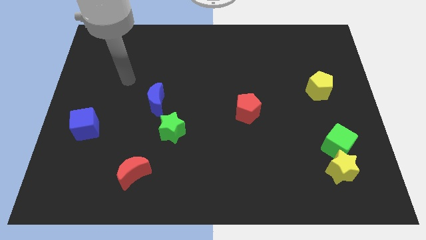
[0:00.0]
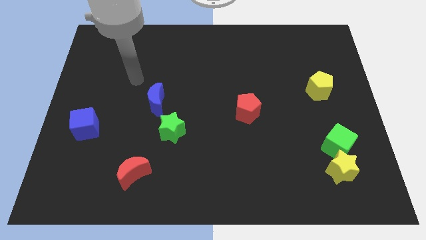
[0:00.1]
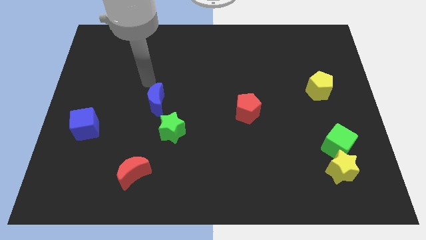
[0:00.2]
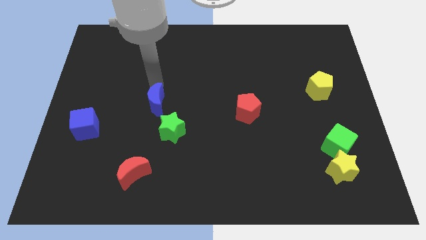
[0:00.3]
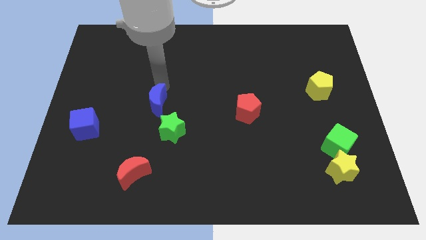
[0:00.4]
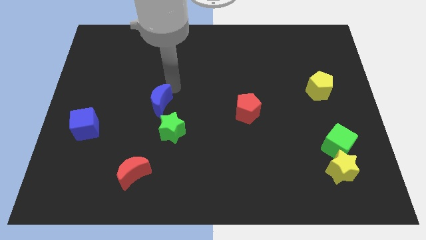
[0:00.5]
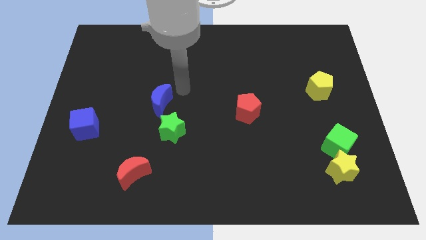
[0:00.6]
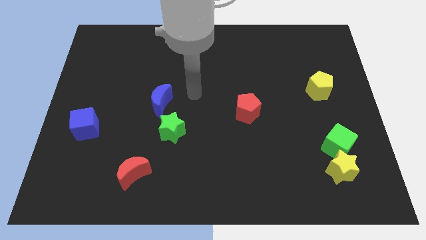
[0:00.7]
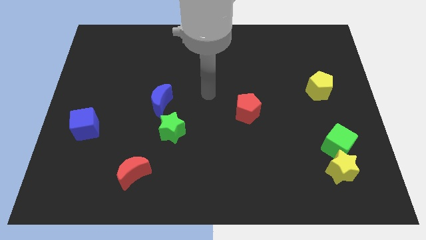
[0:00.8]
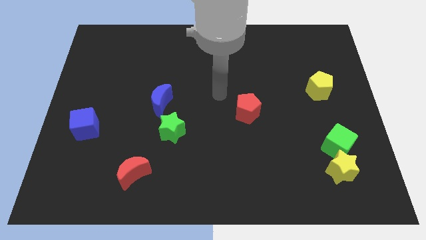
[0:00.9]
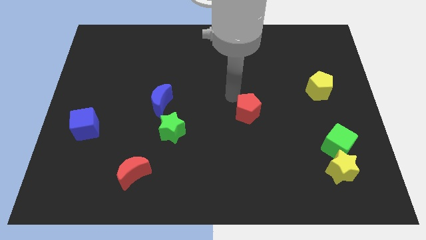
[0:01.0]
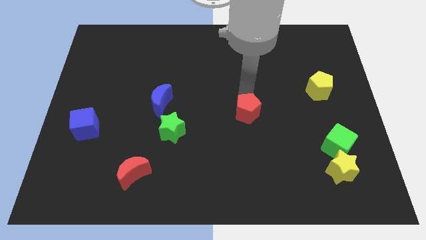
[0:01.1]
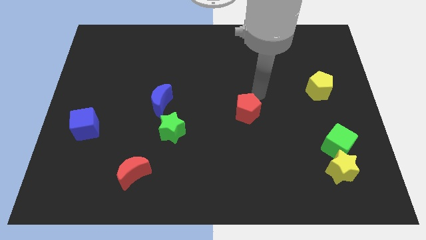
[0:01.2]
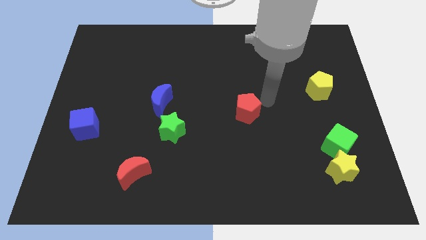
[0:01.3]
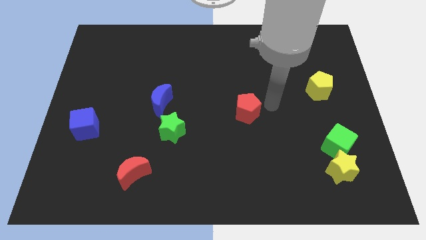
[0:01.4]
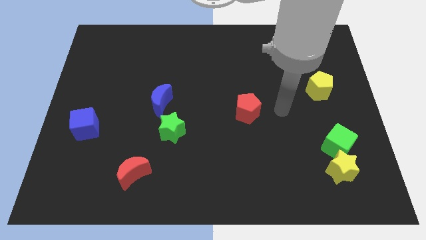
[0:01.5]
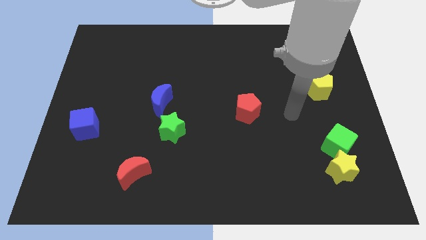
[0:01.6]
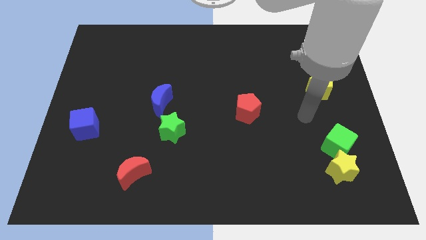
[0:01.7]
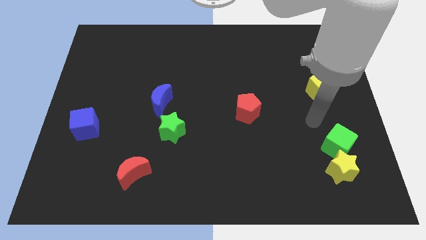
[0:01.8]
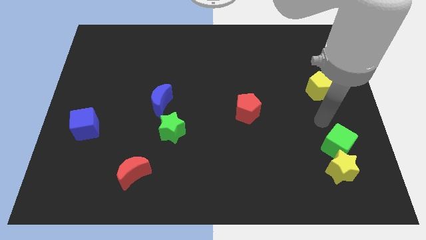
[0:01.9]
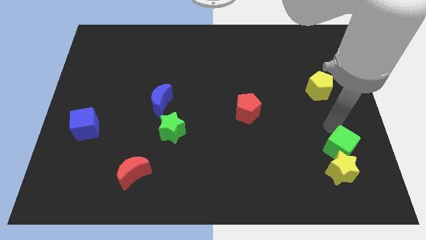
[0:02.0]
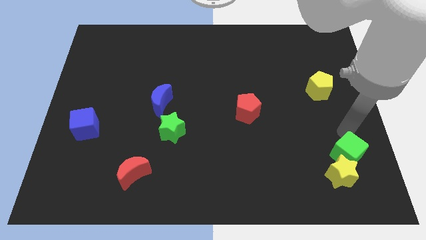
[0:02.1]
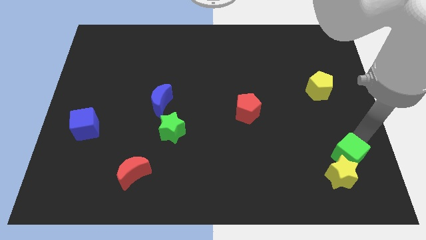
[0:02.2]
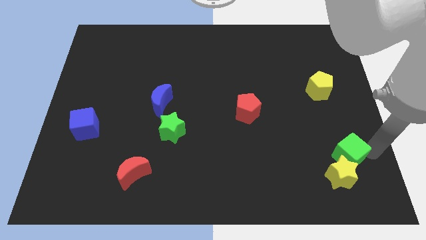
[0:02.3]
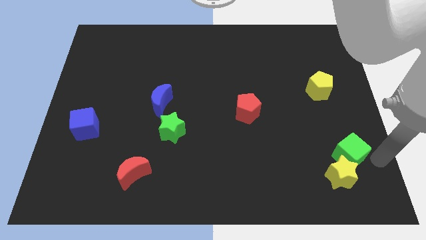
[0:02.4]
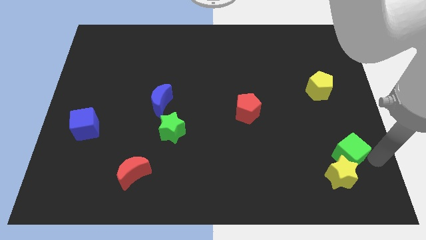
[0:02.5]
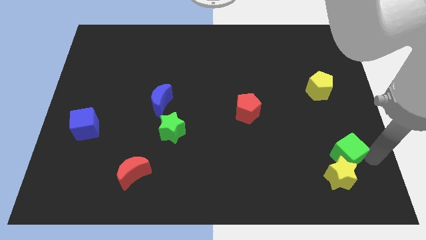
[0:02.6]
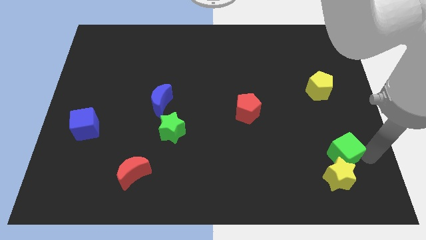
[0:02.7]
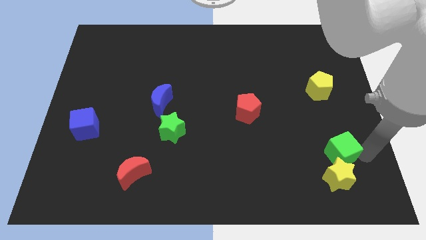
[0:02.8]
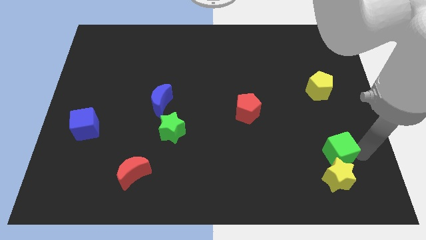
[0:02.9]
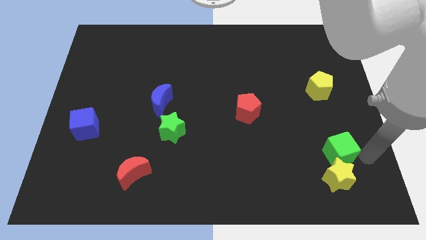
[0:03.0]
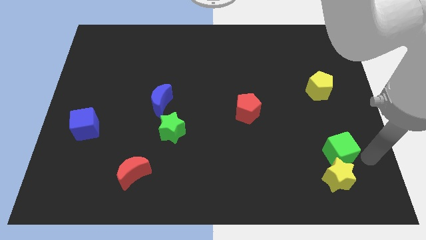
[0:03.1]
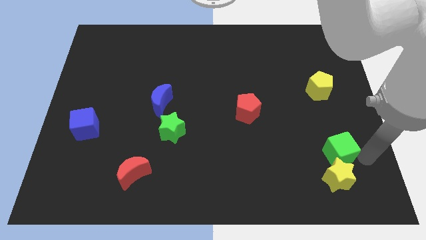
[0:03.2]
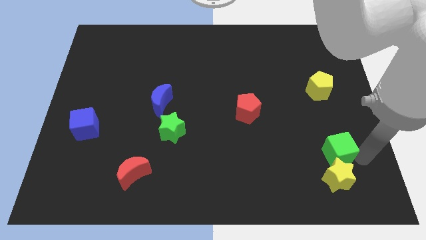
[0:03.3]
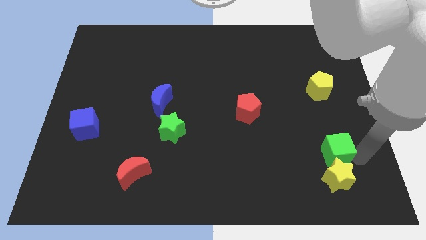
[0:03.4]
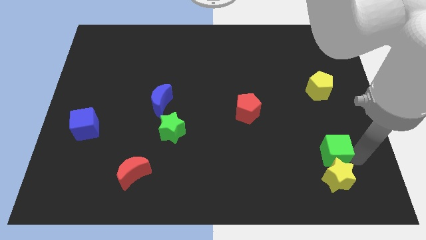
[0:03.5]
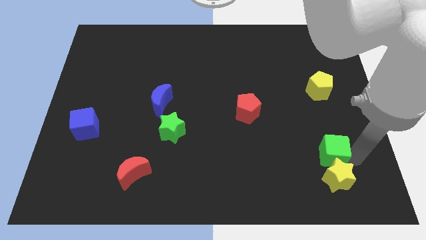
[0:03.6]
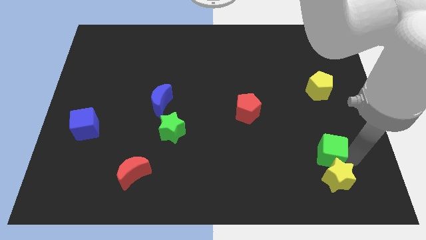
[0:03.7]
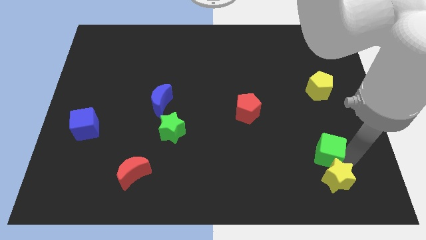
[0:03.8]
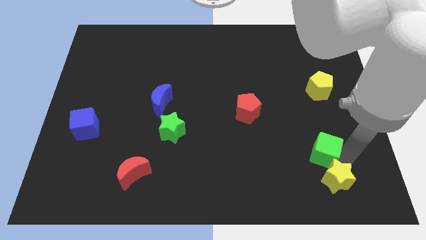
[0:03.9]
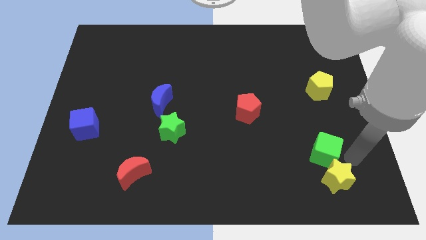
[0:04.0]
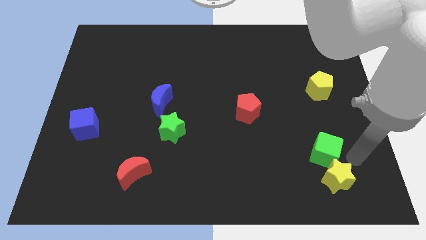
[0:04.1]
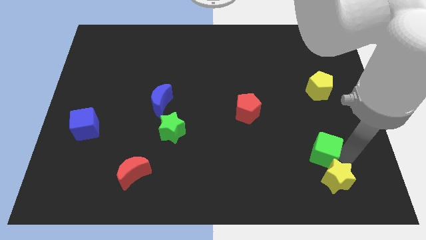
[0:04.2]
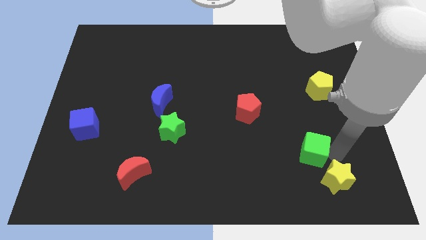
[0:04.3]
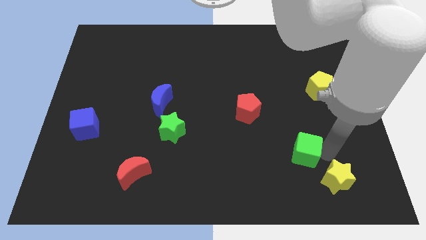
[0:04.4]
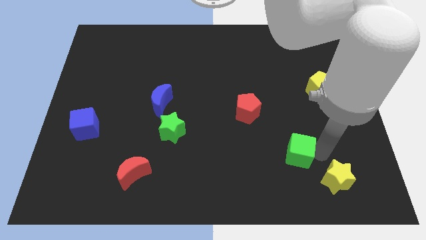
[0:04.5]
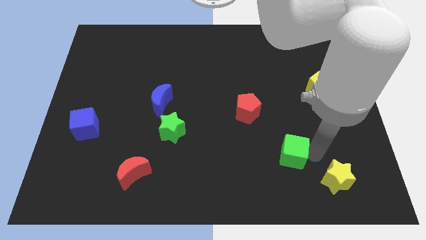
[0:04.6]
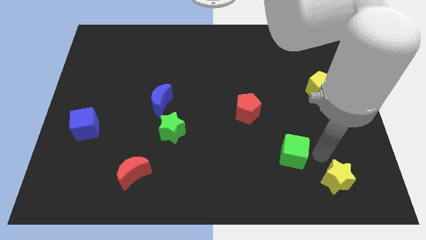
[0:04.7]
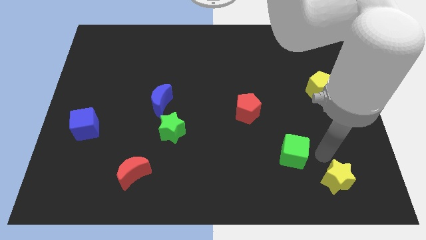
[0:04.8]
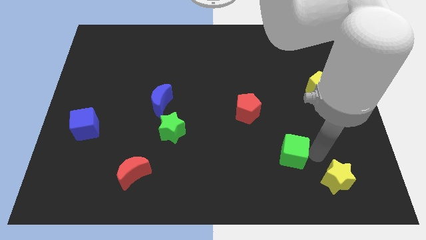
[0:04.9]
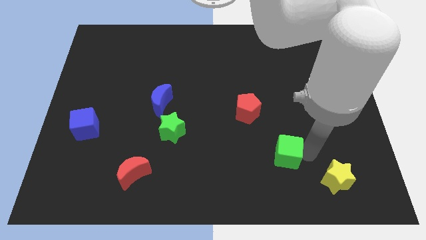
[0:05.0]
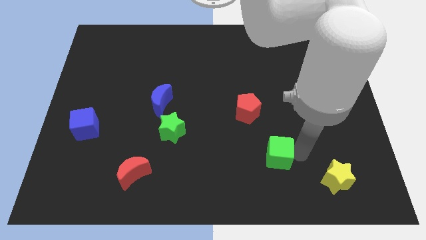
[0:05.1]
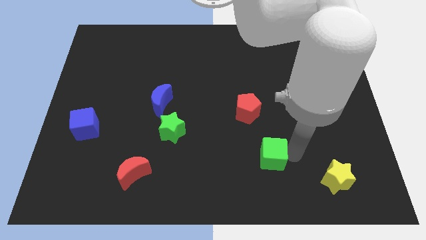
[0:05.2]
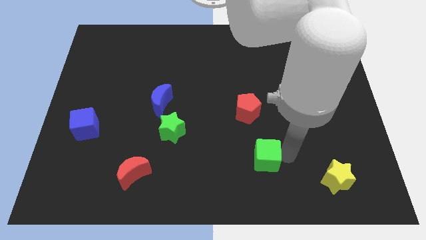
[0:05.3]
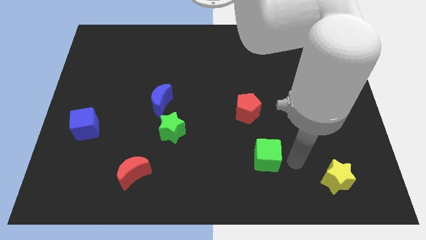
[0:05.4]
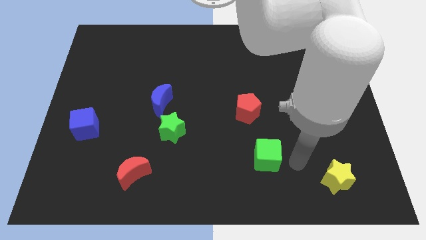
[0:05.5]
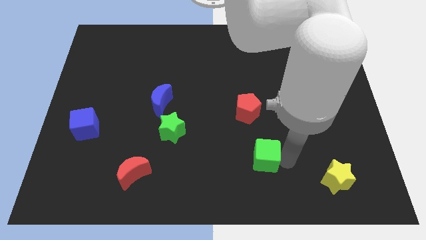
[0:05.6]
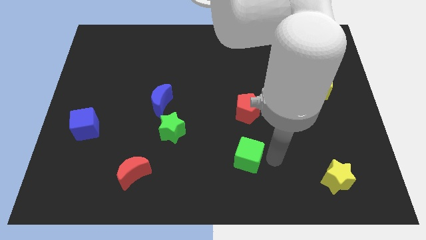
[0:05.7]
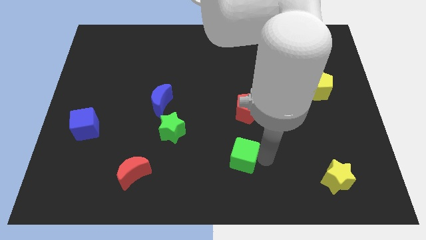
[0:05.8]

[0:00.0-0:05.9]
slide the green cube left

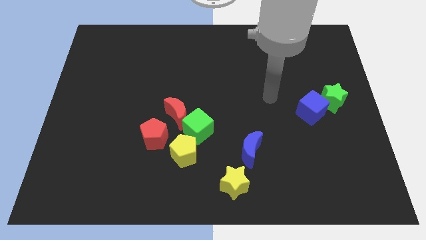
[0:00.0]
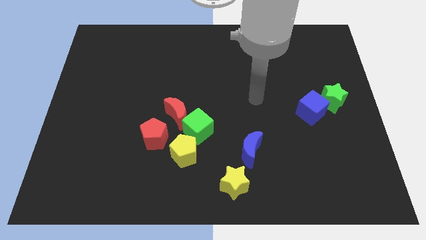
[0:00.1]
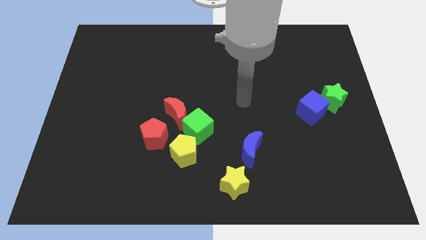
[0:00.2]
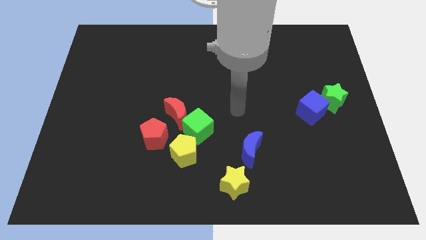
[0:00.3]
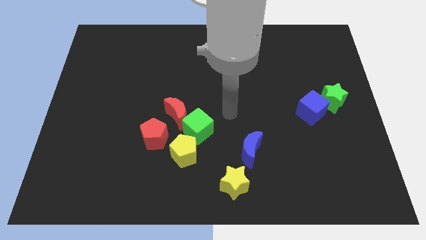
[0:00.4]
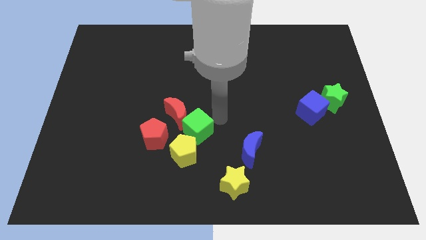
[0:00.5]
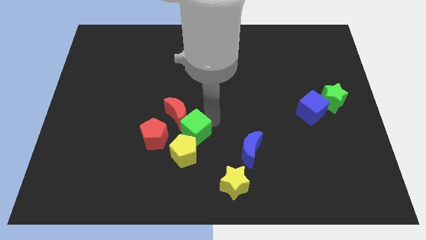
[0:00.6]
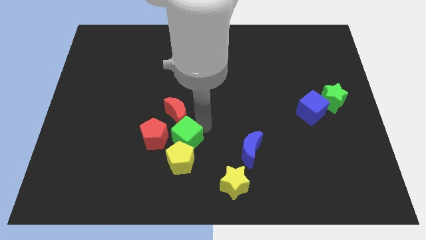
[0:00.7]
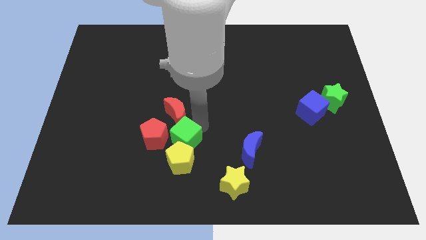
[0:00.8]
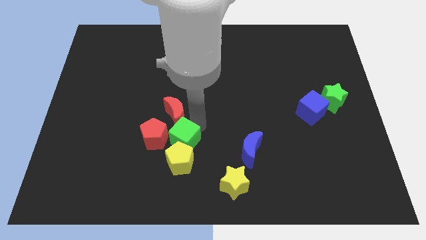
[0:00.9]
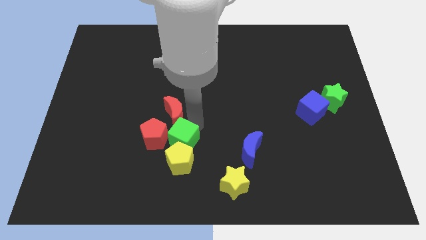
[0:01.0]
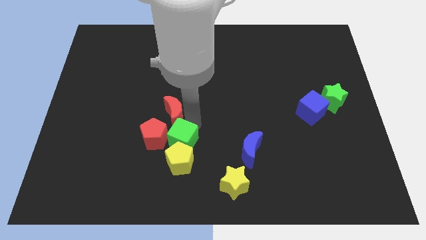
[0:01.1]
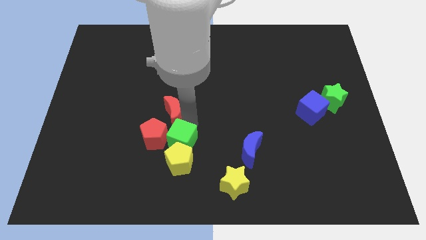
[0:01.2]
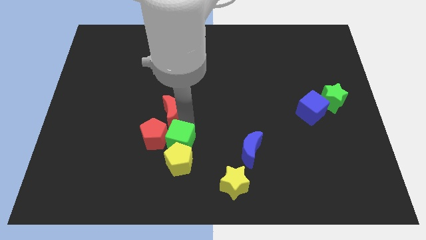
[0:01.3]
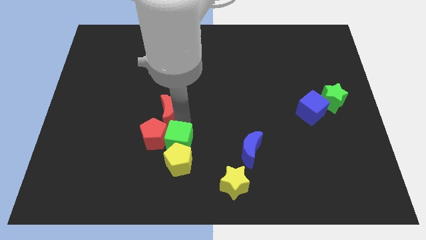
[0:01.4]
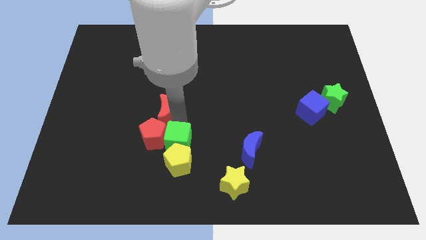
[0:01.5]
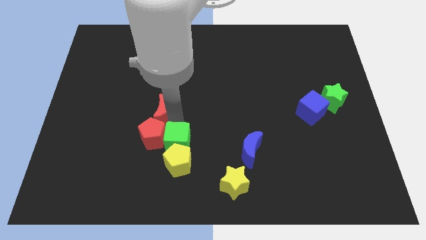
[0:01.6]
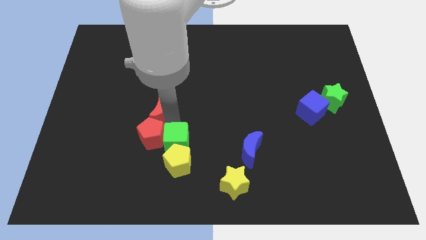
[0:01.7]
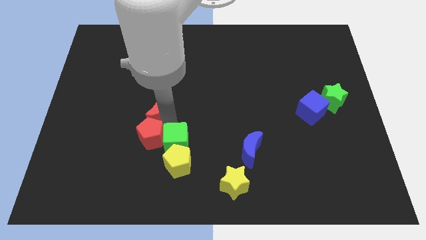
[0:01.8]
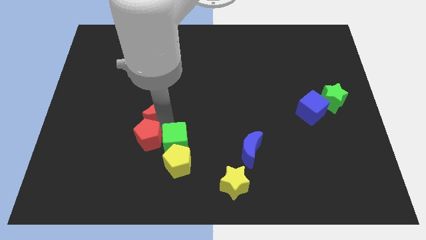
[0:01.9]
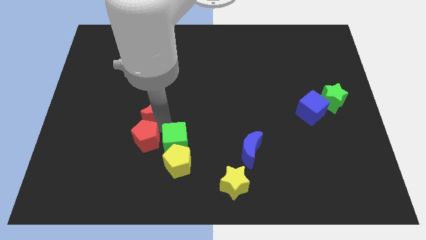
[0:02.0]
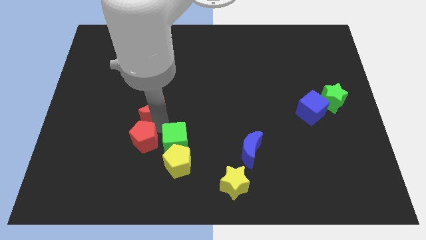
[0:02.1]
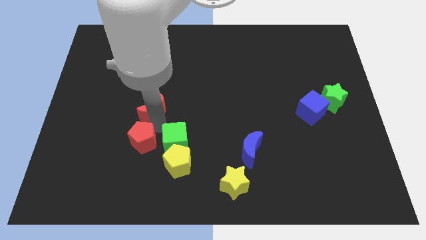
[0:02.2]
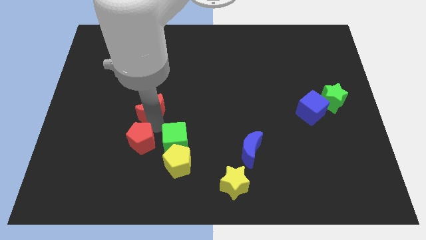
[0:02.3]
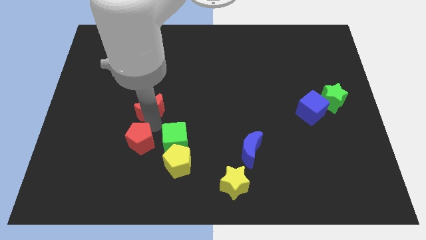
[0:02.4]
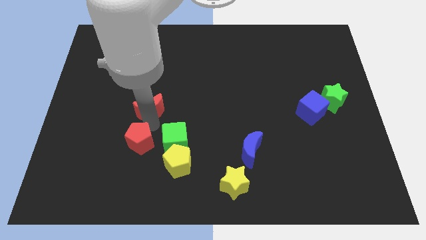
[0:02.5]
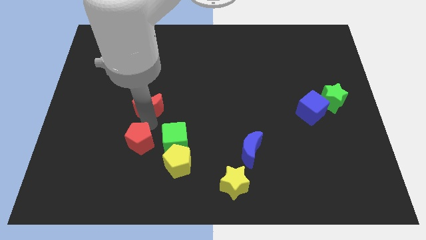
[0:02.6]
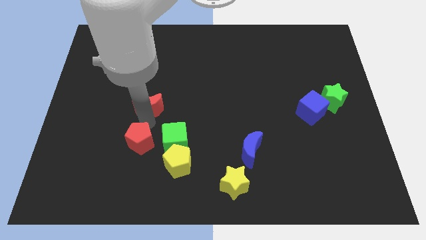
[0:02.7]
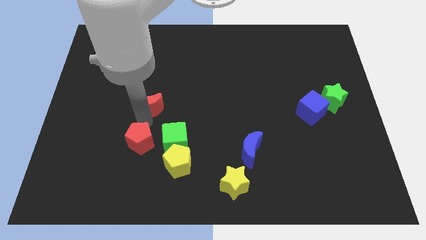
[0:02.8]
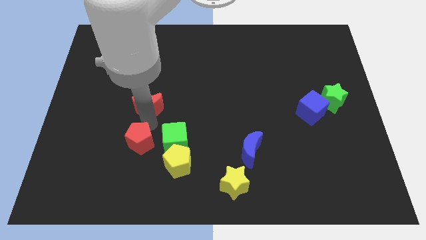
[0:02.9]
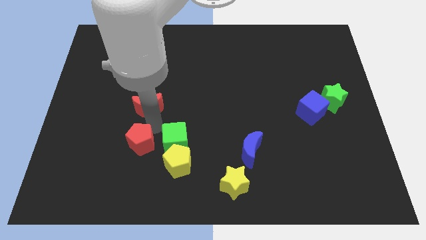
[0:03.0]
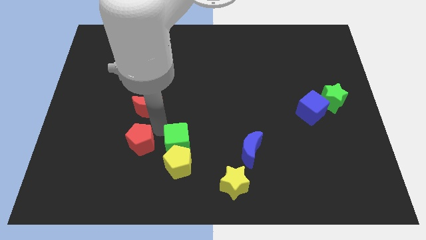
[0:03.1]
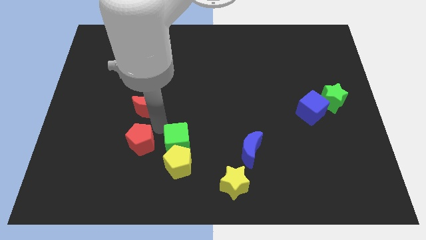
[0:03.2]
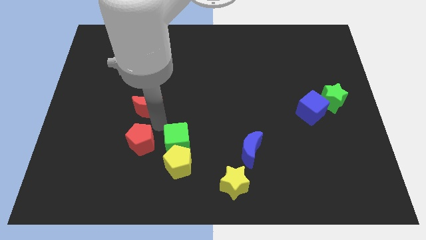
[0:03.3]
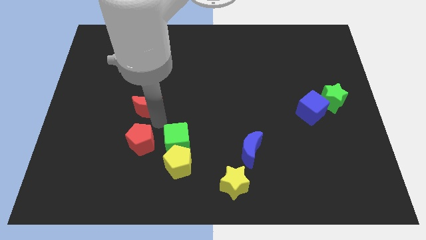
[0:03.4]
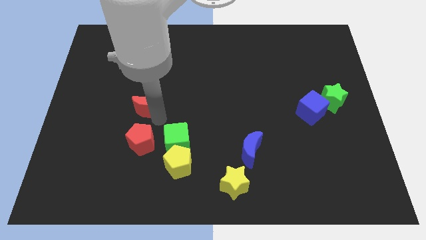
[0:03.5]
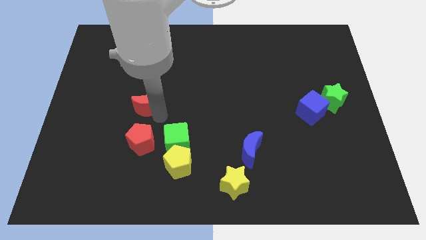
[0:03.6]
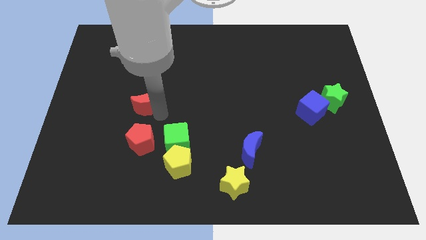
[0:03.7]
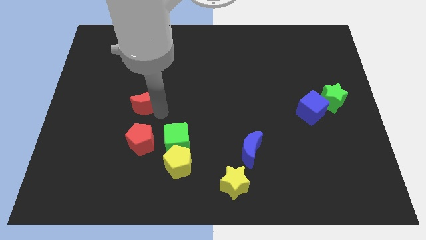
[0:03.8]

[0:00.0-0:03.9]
move the red moon diagonally up and left slightly
